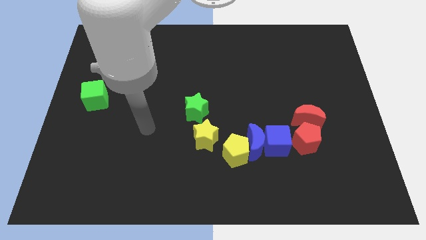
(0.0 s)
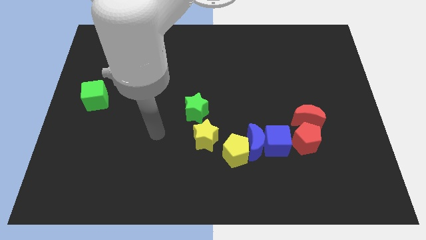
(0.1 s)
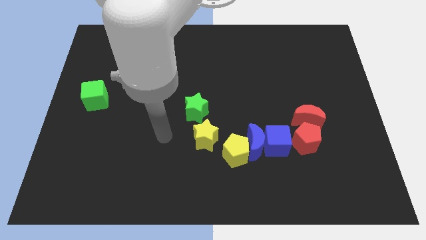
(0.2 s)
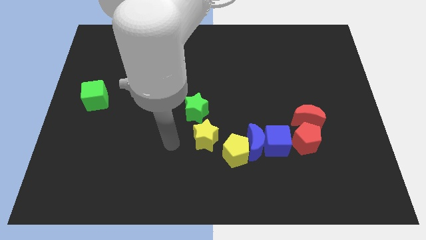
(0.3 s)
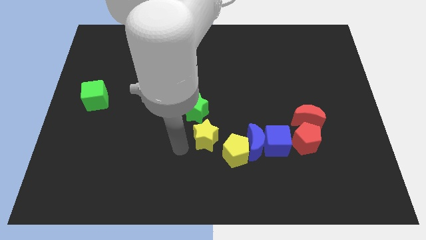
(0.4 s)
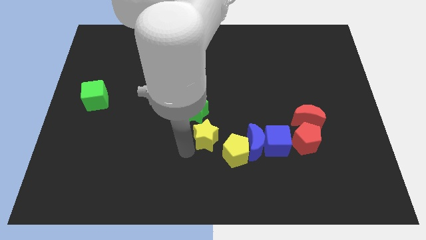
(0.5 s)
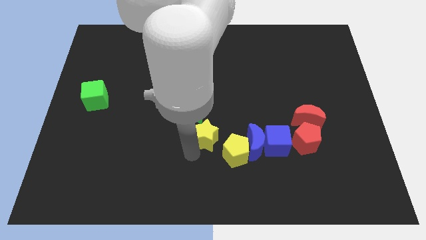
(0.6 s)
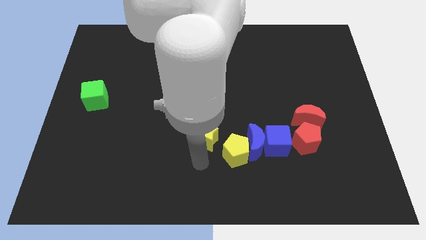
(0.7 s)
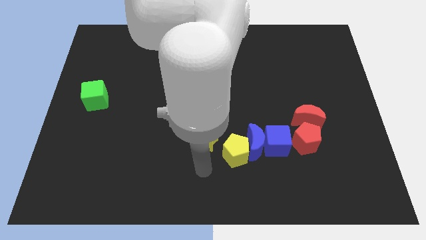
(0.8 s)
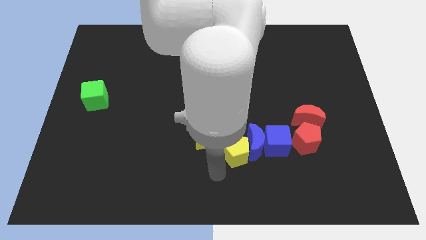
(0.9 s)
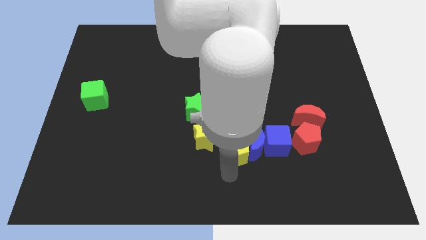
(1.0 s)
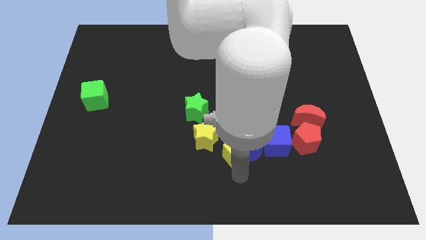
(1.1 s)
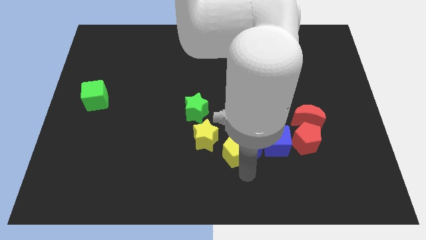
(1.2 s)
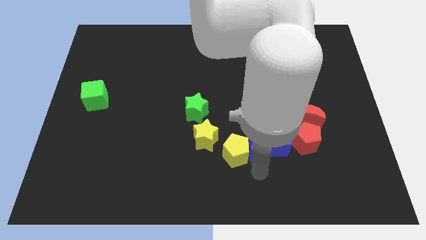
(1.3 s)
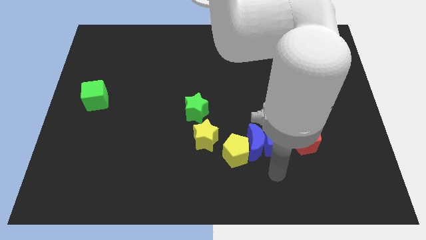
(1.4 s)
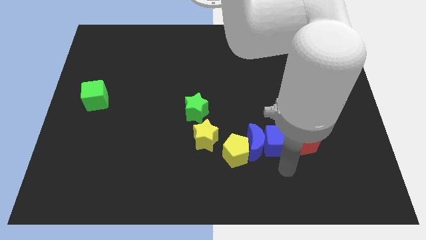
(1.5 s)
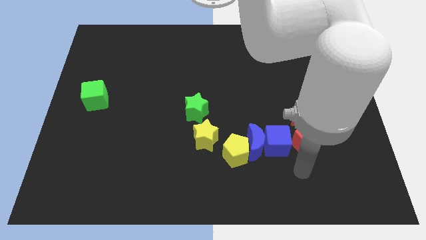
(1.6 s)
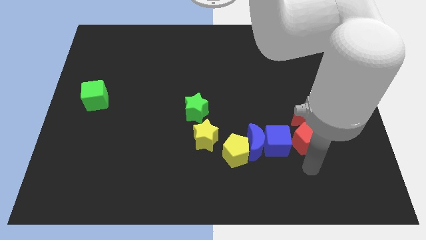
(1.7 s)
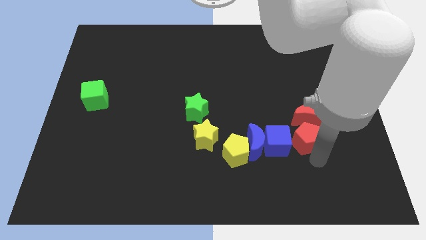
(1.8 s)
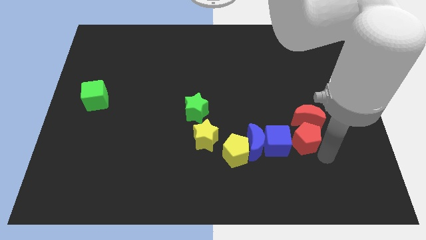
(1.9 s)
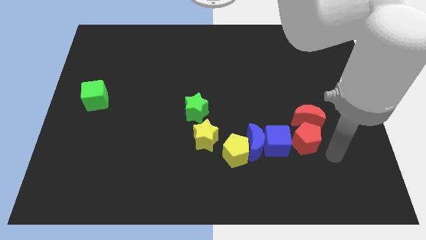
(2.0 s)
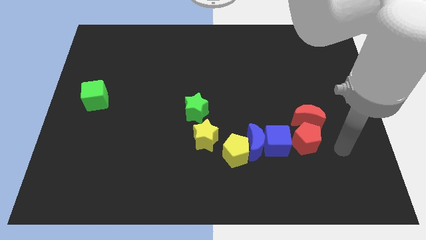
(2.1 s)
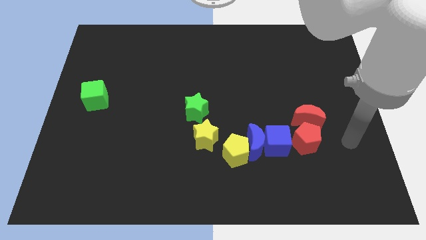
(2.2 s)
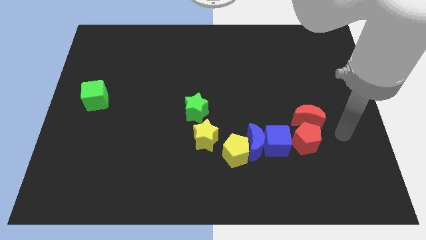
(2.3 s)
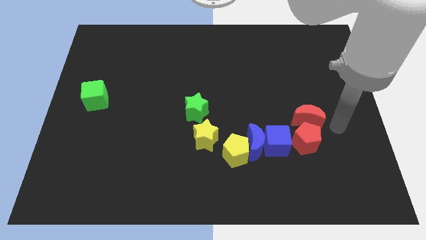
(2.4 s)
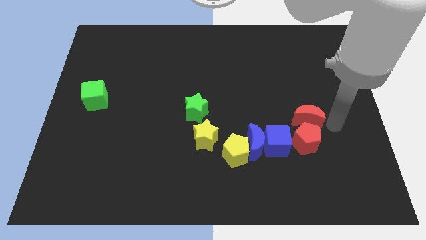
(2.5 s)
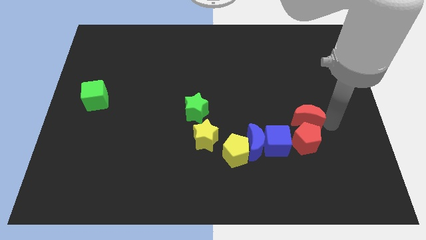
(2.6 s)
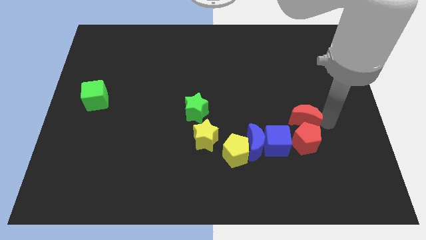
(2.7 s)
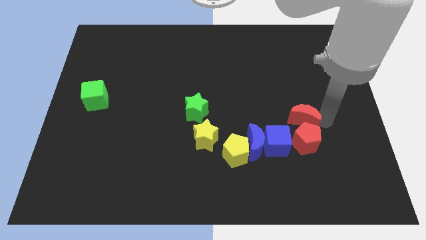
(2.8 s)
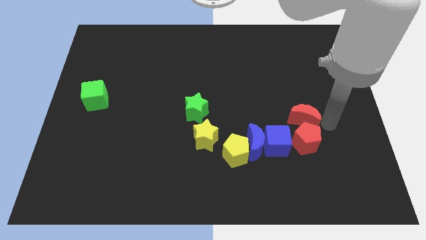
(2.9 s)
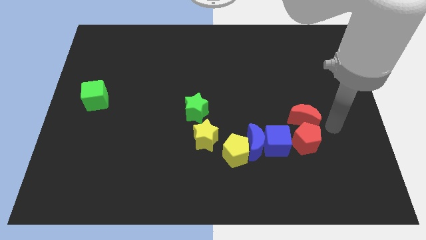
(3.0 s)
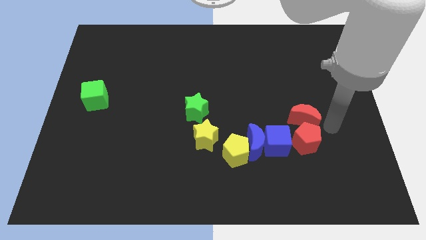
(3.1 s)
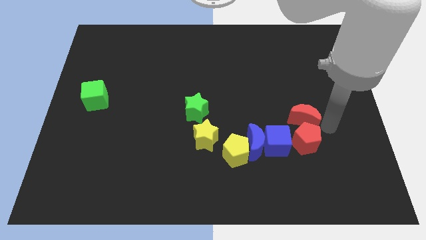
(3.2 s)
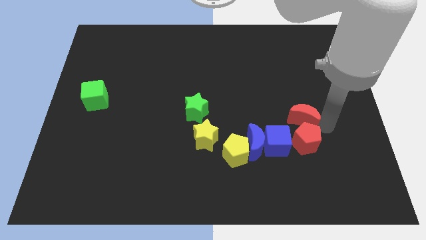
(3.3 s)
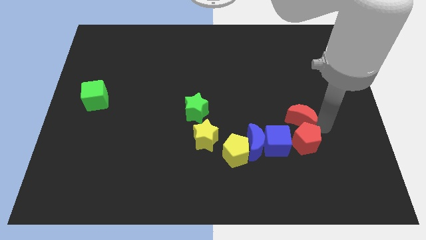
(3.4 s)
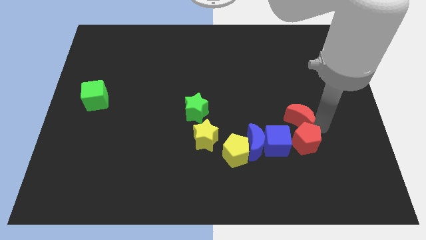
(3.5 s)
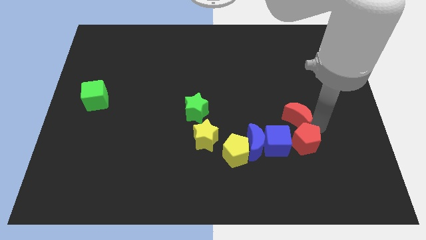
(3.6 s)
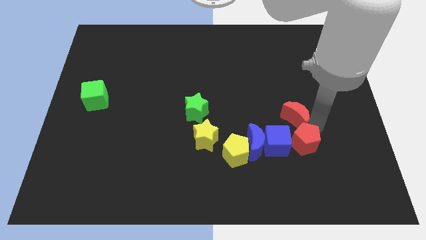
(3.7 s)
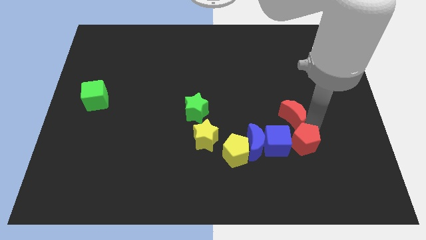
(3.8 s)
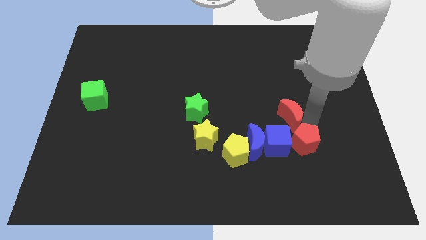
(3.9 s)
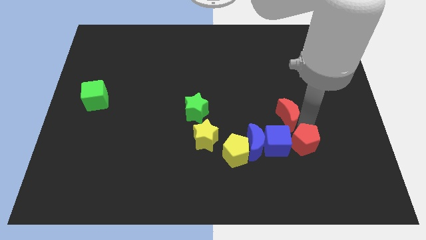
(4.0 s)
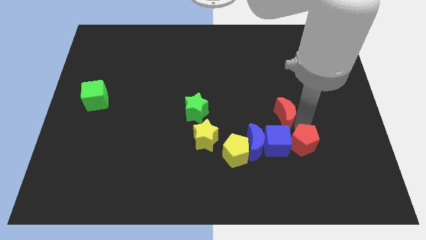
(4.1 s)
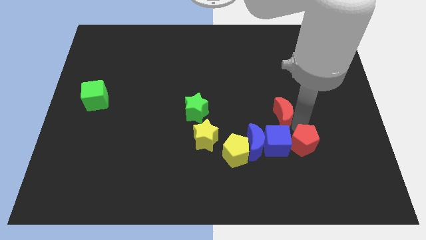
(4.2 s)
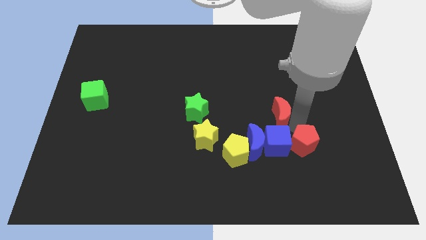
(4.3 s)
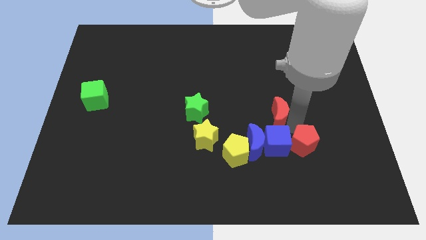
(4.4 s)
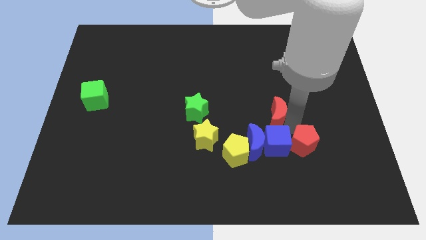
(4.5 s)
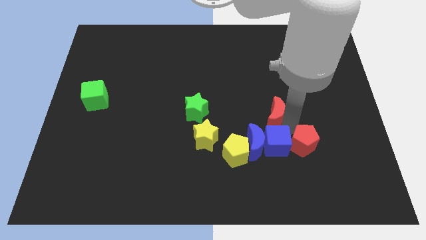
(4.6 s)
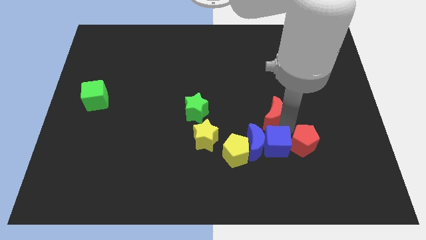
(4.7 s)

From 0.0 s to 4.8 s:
push the red moon to the top of the blue moon

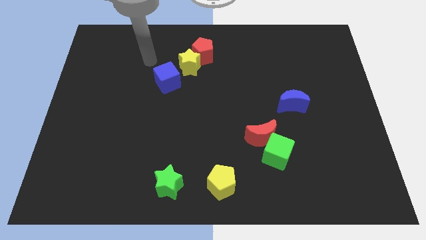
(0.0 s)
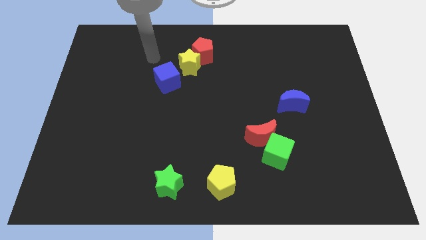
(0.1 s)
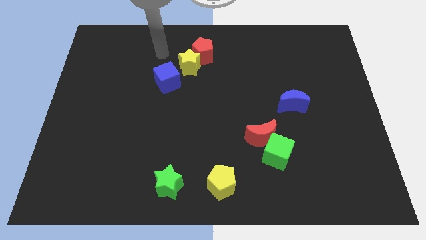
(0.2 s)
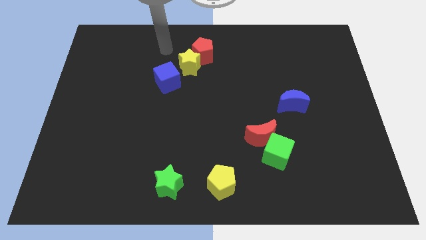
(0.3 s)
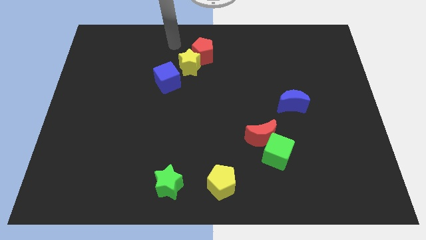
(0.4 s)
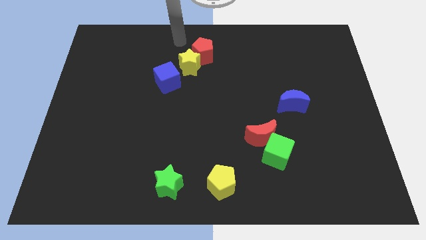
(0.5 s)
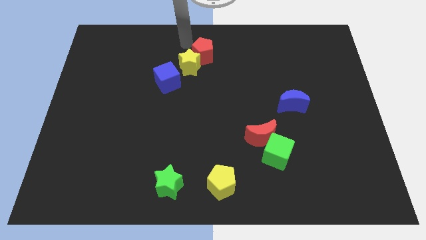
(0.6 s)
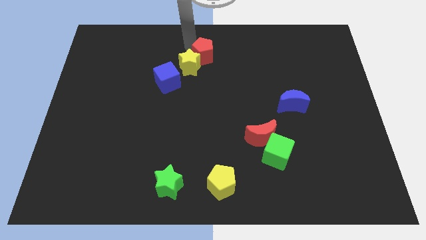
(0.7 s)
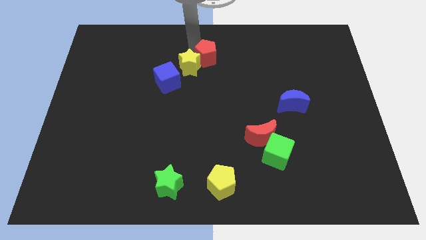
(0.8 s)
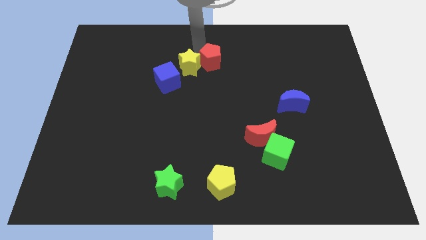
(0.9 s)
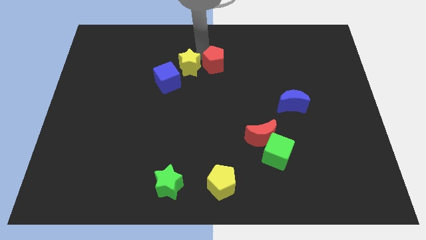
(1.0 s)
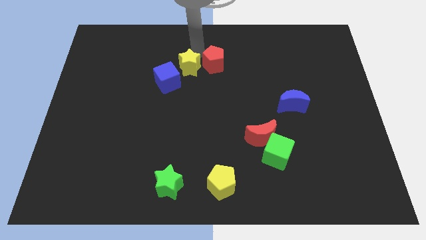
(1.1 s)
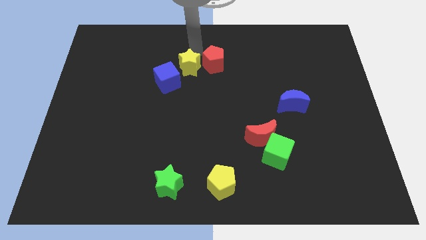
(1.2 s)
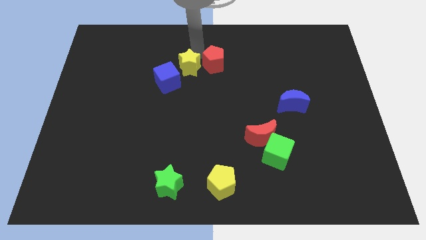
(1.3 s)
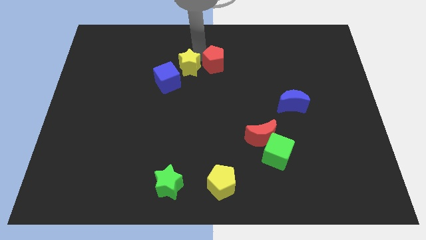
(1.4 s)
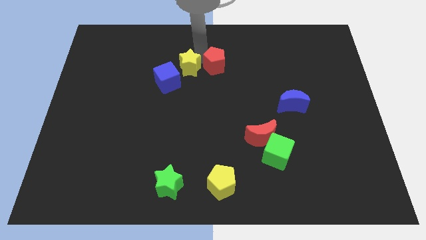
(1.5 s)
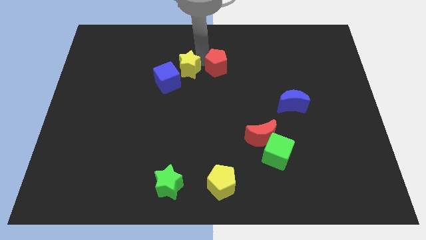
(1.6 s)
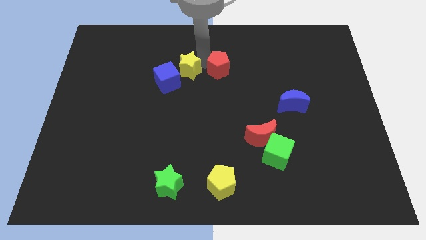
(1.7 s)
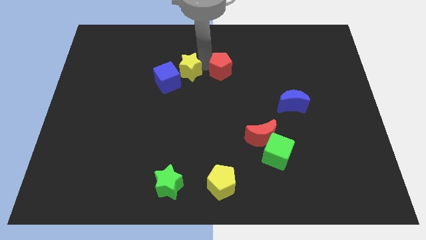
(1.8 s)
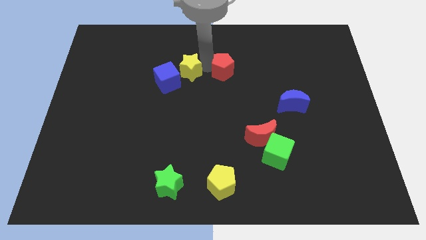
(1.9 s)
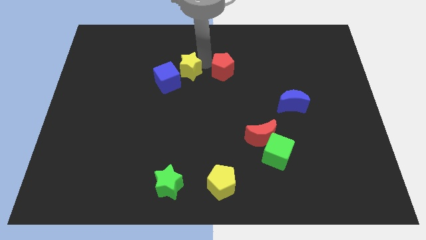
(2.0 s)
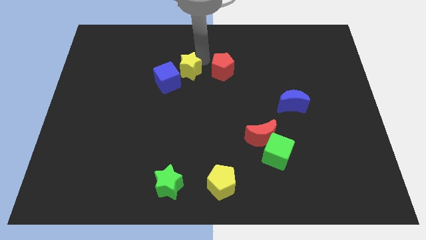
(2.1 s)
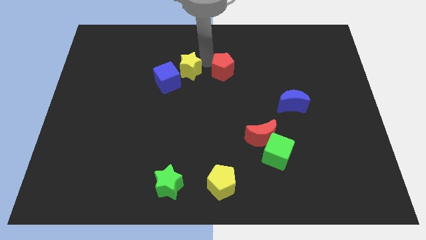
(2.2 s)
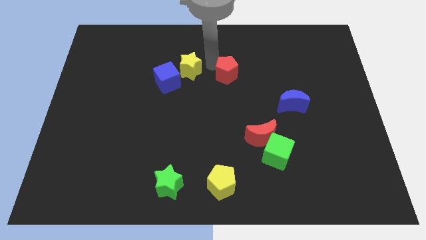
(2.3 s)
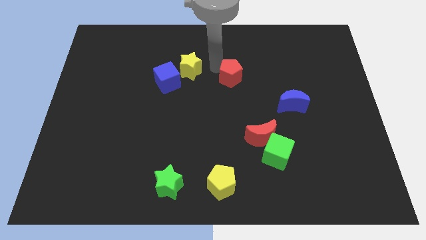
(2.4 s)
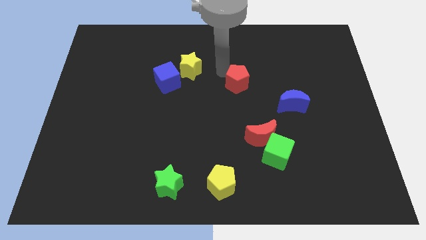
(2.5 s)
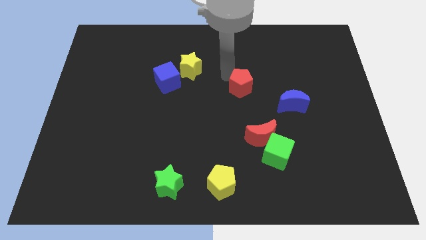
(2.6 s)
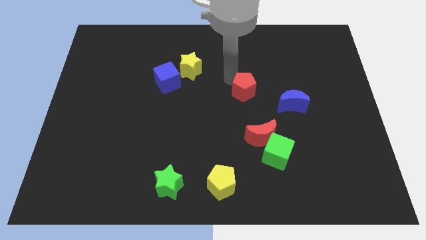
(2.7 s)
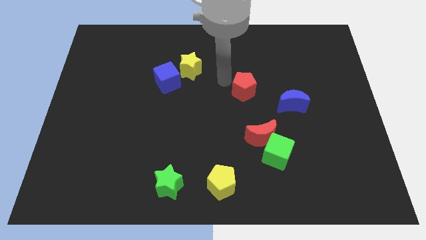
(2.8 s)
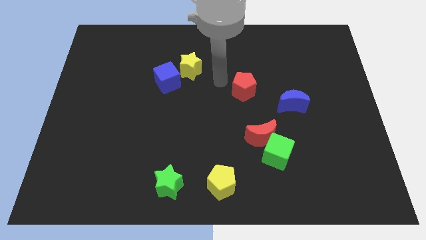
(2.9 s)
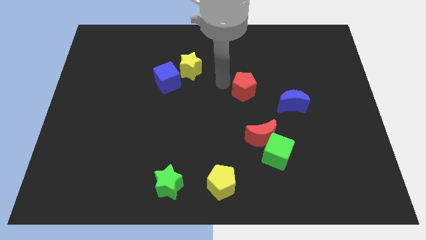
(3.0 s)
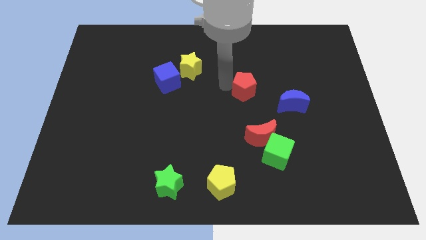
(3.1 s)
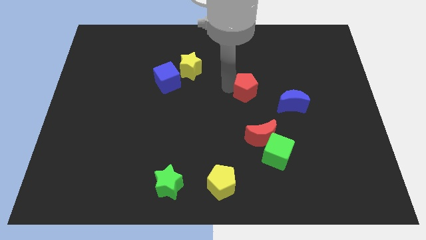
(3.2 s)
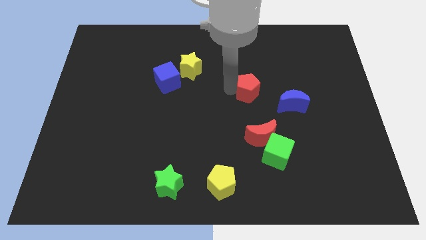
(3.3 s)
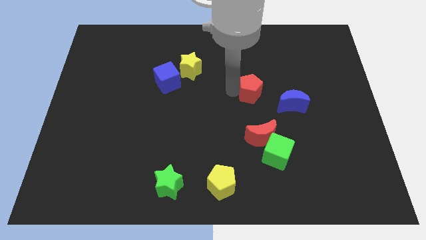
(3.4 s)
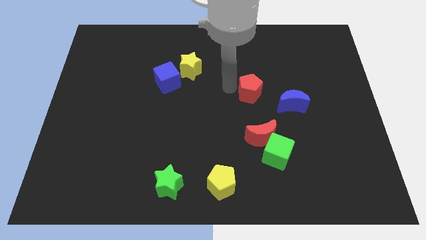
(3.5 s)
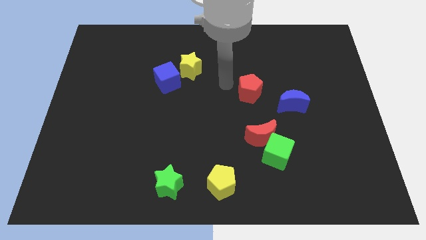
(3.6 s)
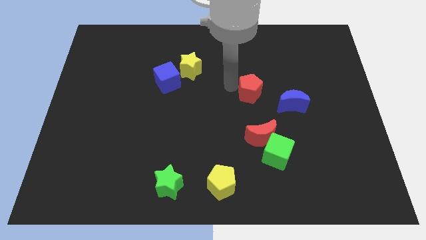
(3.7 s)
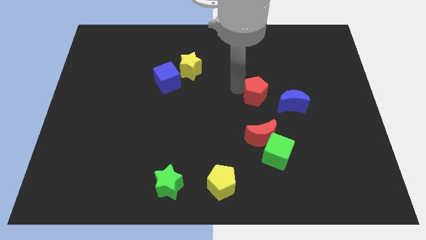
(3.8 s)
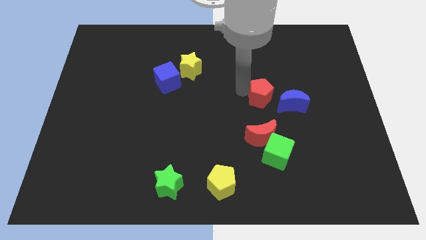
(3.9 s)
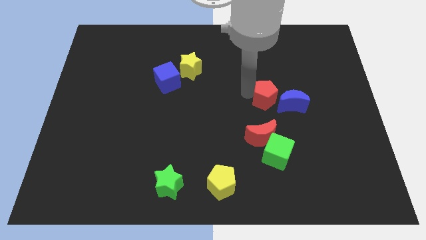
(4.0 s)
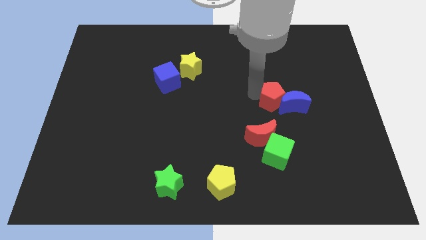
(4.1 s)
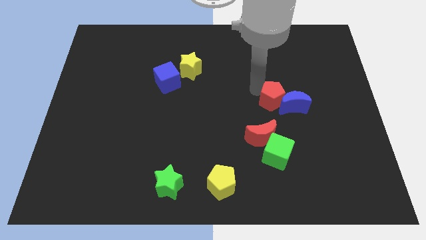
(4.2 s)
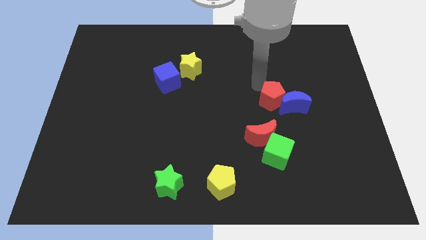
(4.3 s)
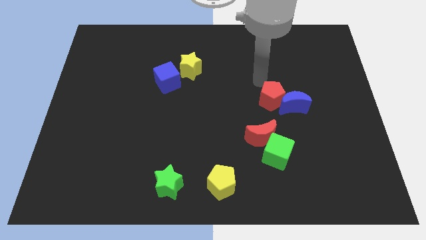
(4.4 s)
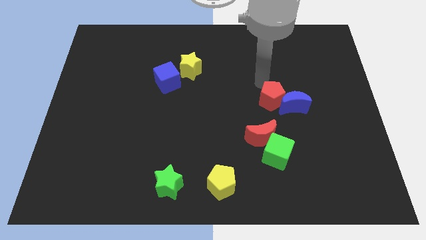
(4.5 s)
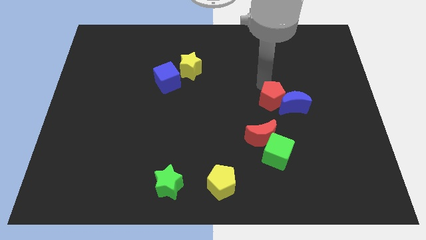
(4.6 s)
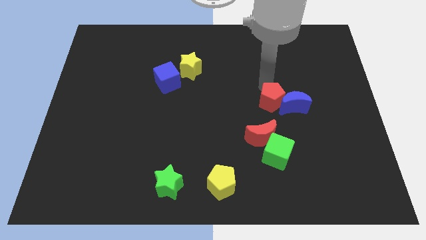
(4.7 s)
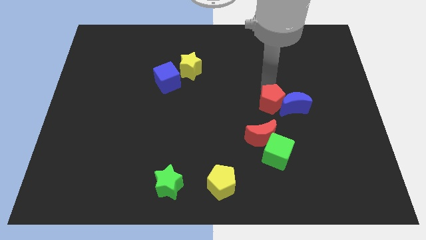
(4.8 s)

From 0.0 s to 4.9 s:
put the red pentagon to the top right of the red moon
